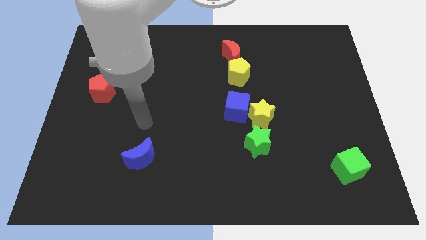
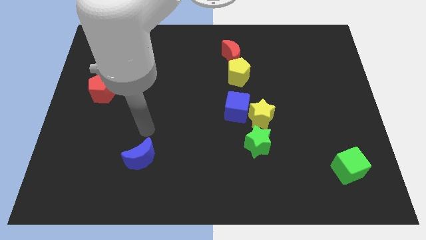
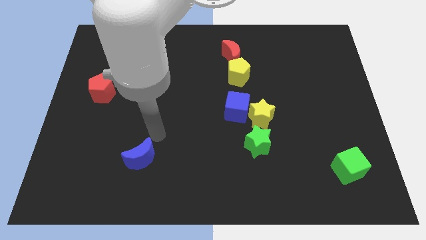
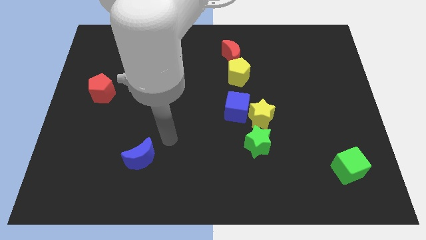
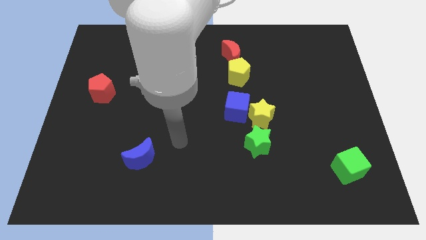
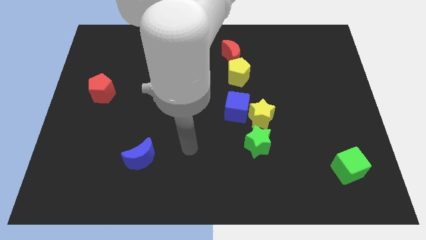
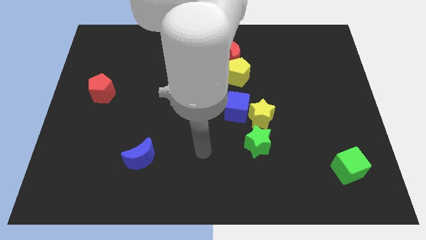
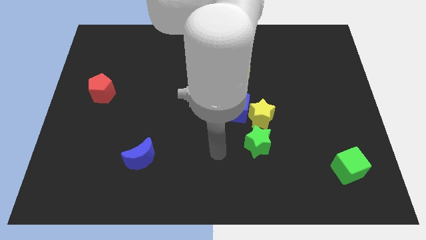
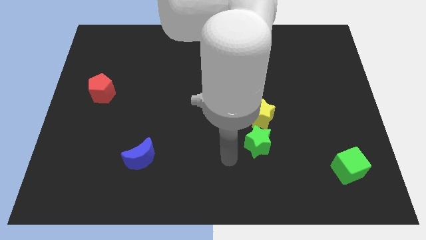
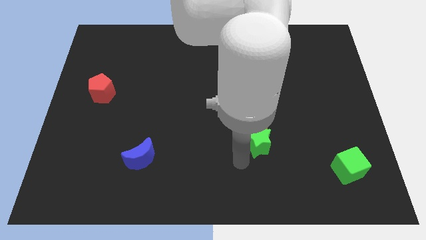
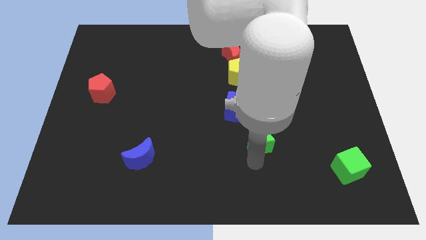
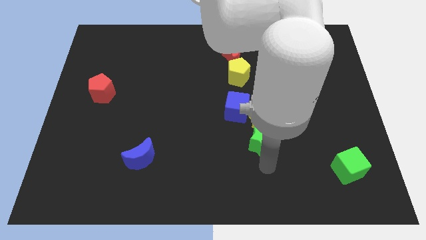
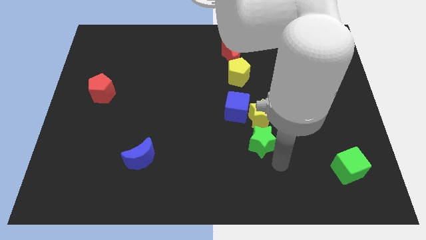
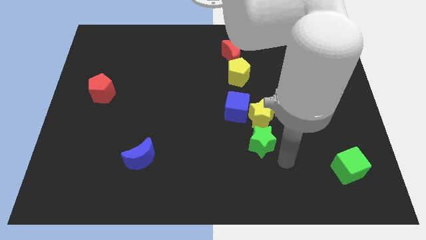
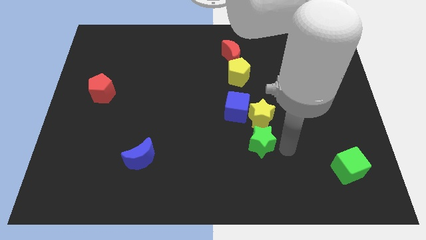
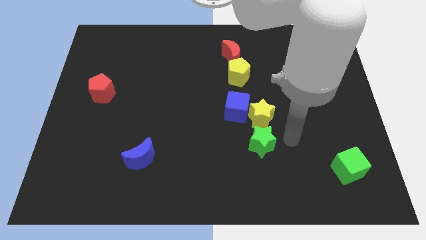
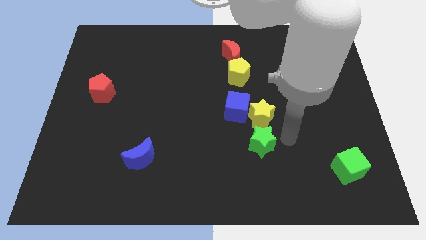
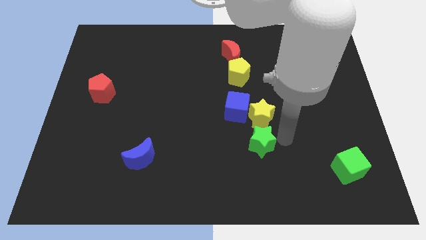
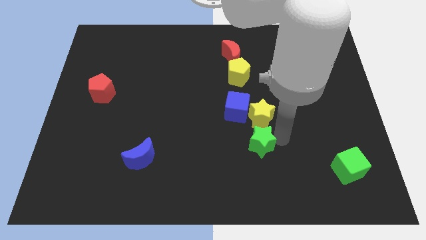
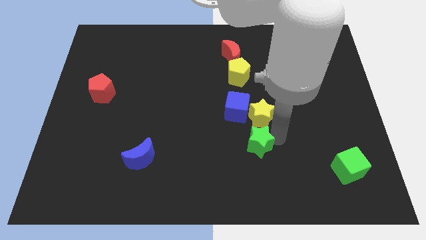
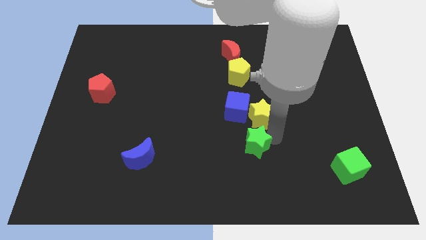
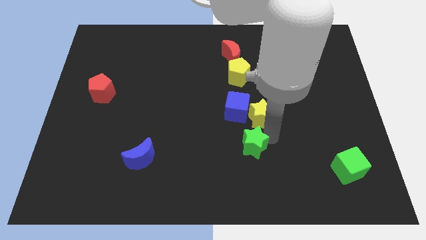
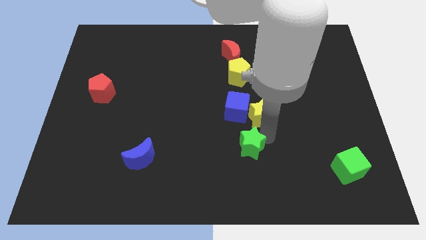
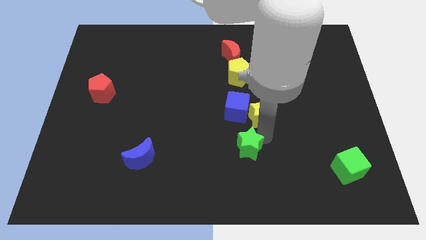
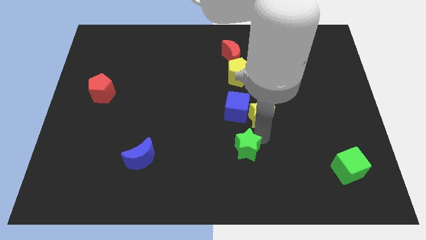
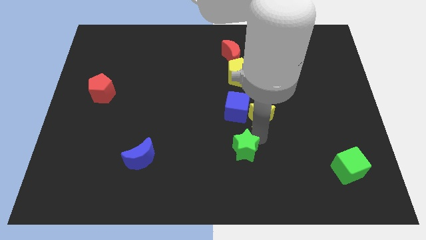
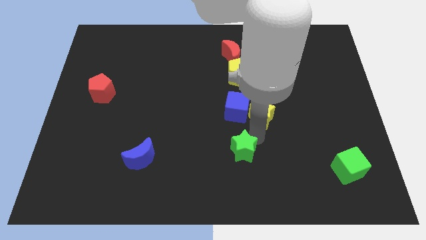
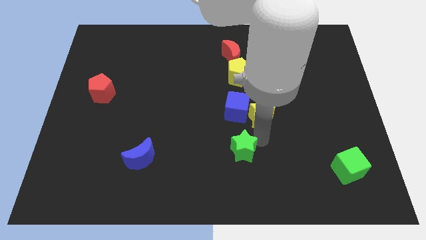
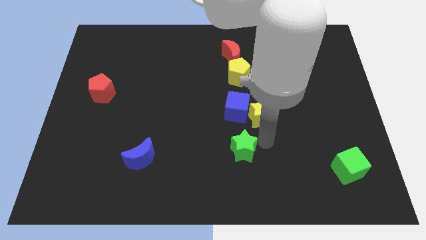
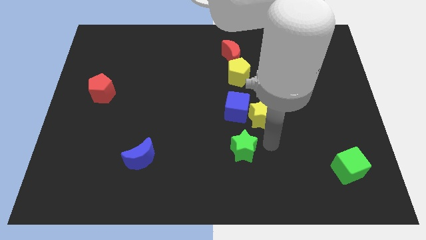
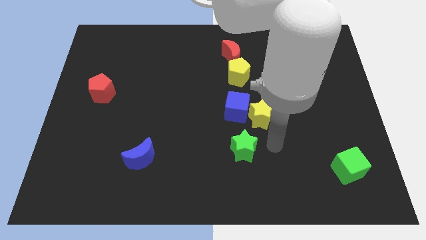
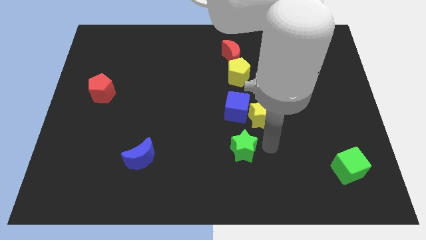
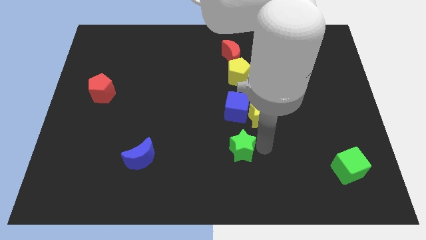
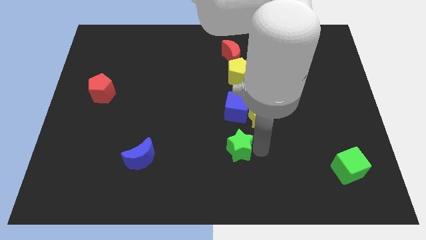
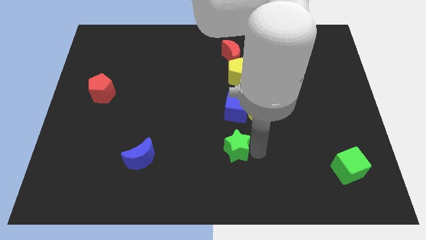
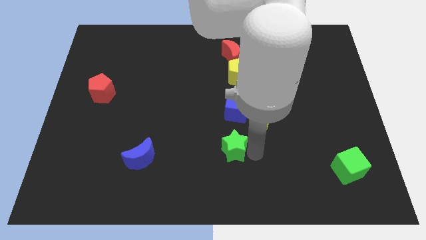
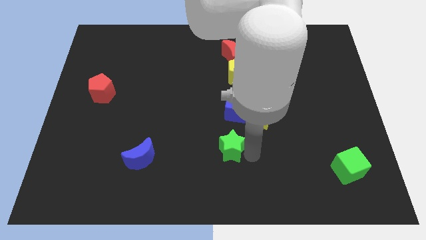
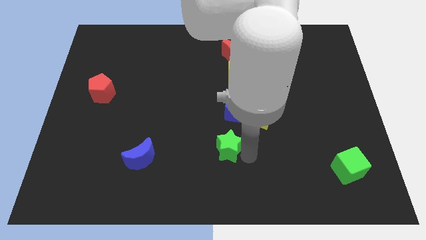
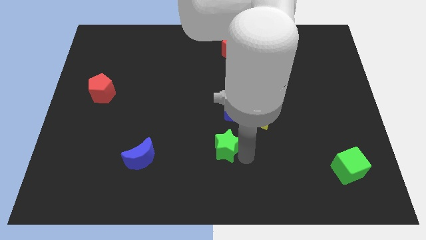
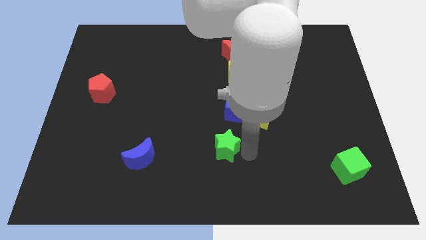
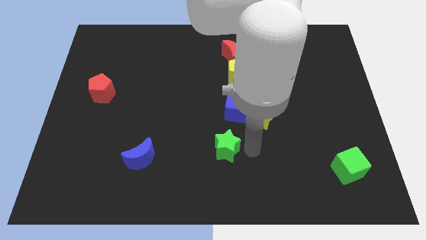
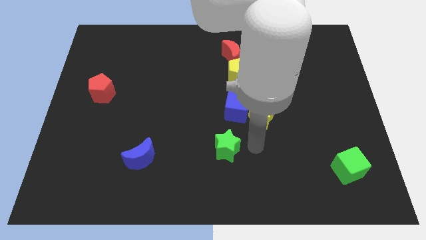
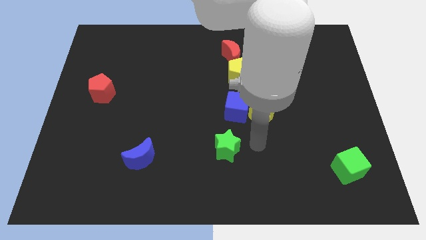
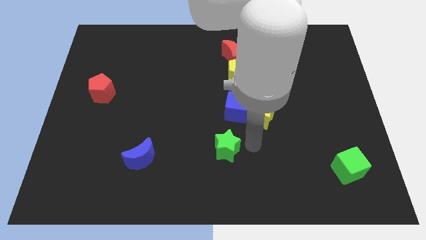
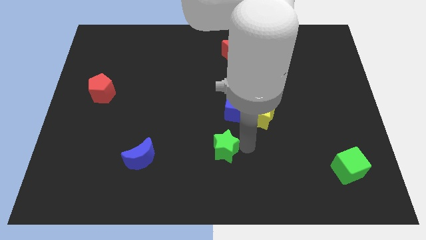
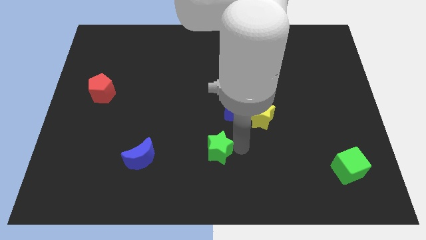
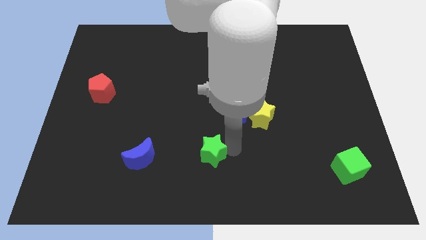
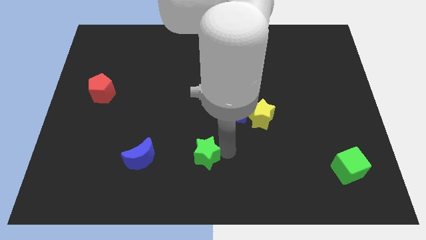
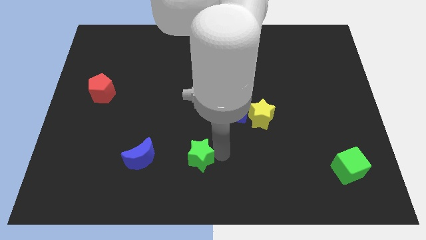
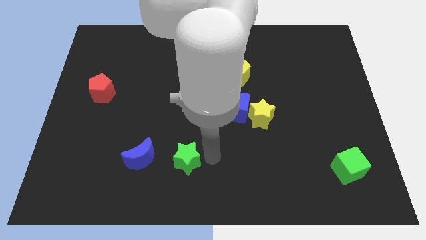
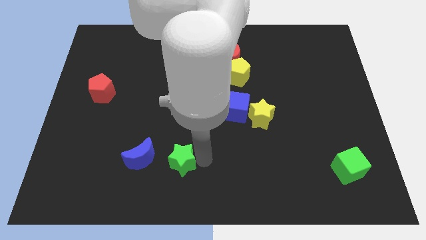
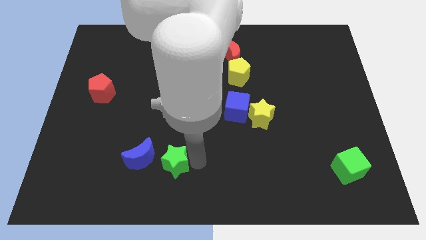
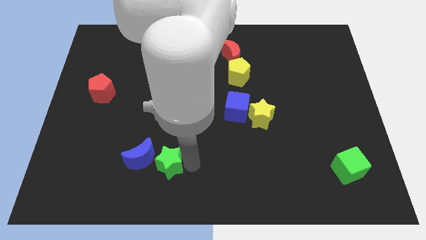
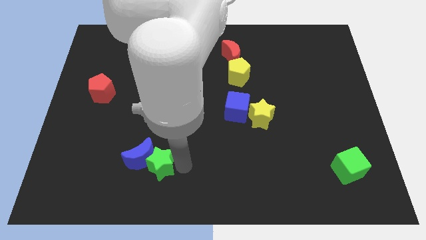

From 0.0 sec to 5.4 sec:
slide the green star next to the blue moon

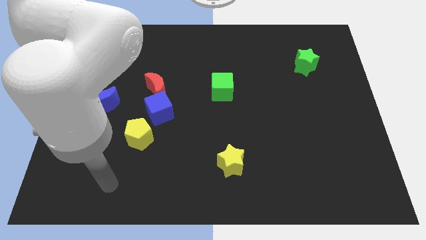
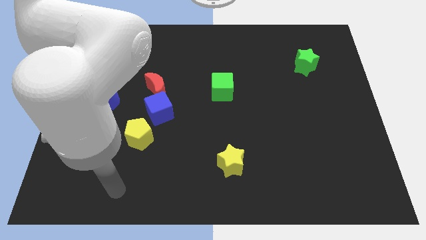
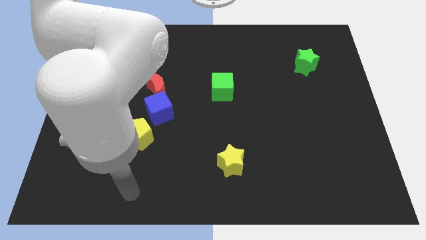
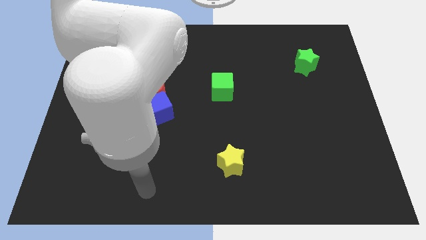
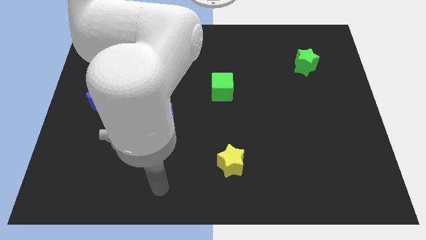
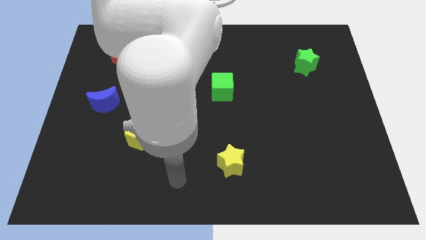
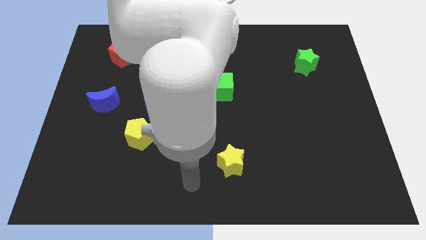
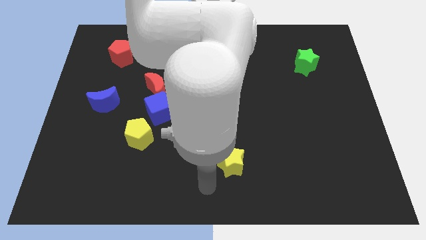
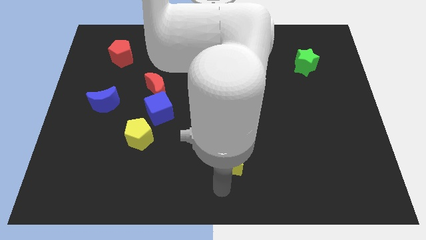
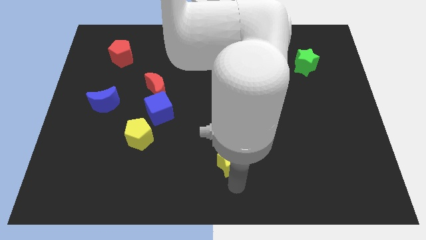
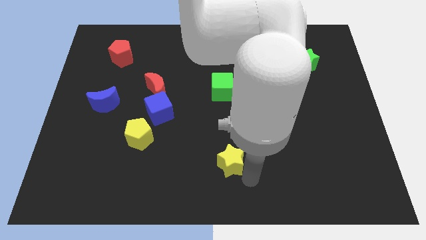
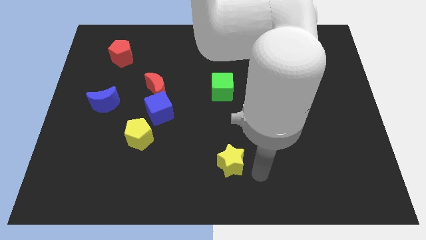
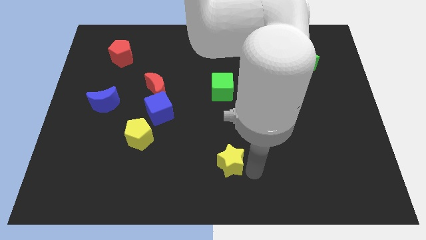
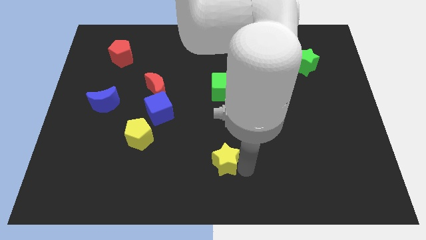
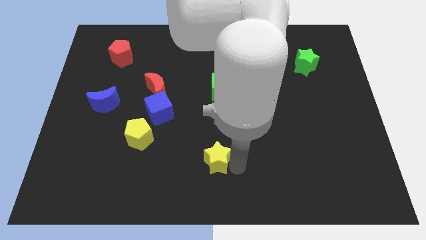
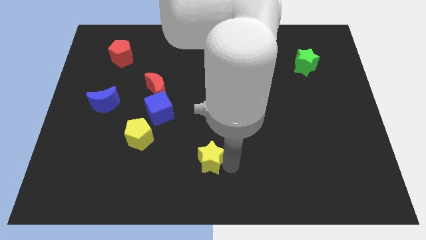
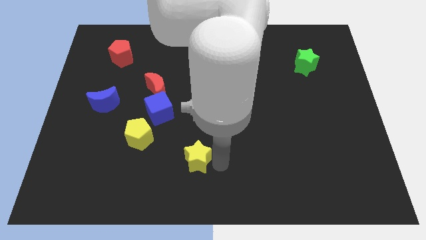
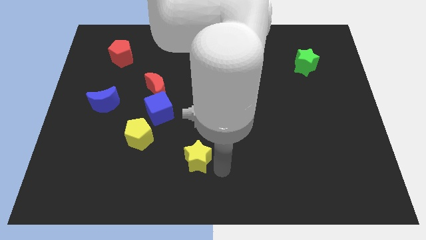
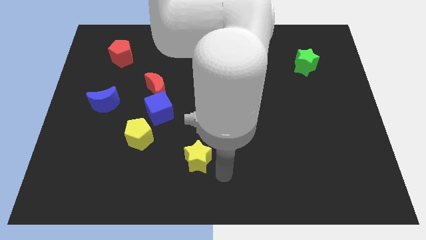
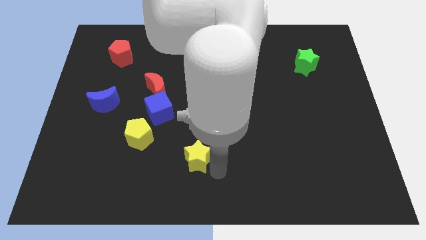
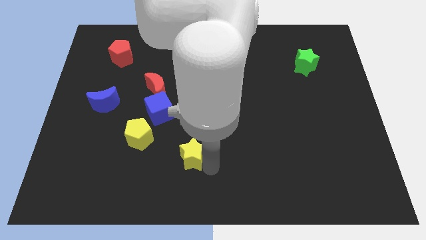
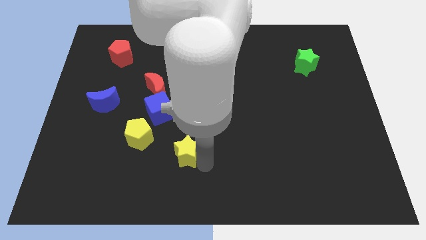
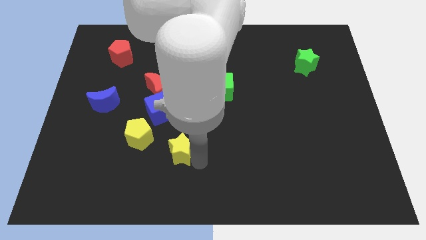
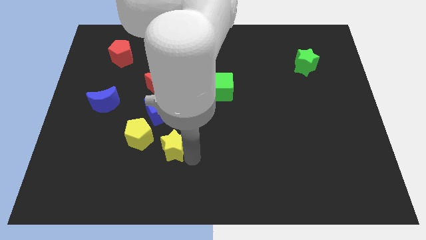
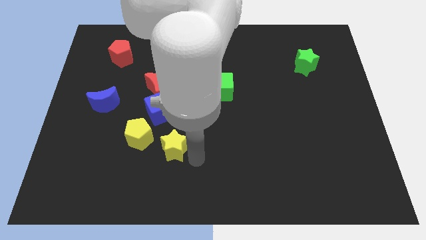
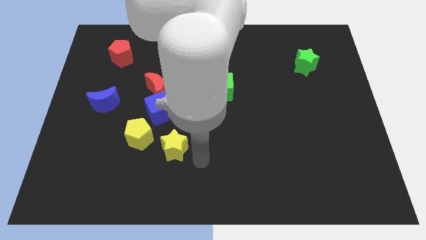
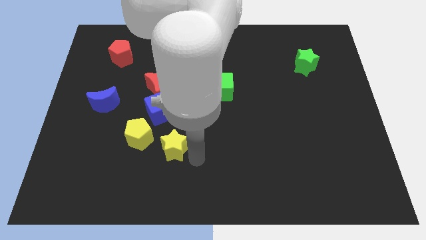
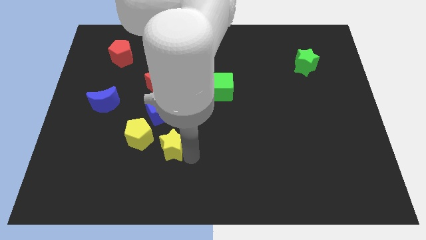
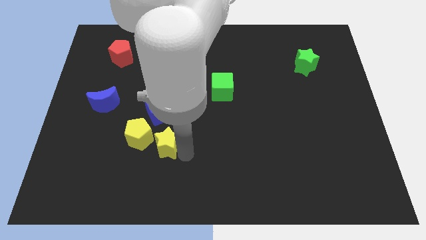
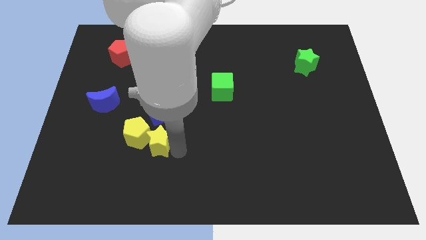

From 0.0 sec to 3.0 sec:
slide the yellow star close to the yellow pentagon
